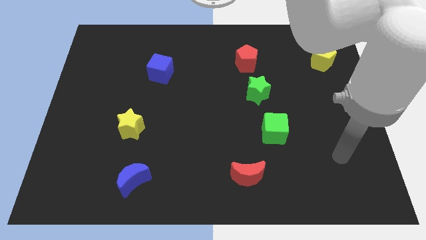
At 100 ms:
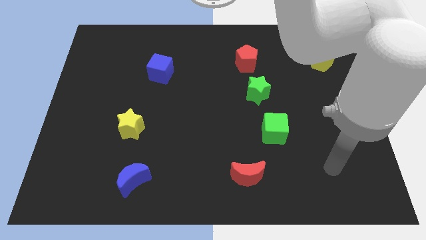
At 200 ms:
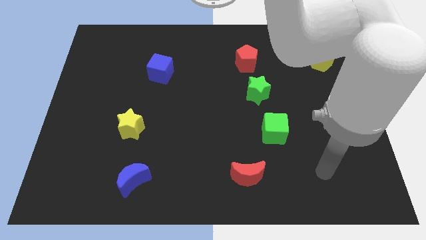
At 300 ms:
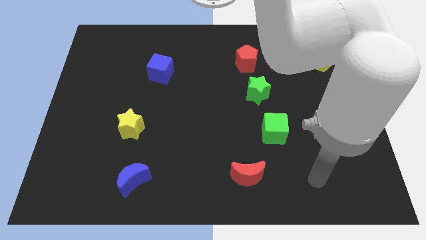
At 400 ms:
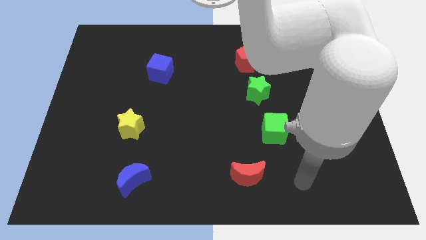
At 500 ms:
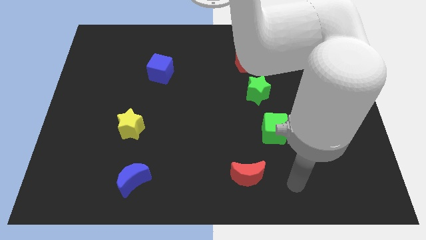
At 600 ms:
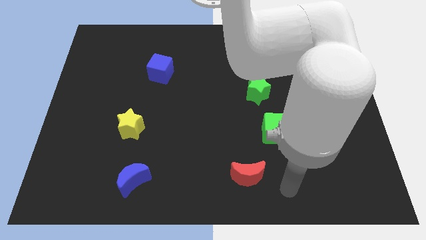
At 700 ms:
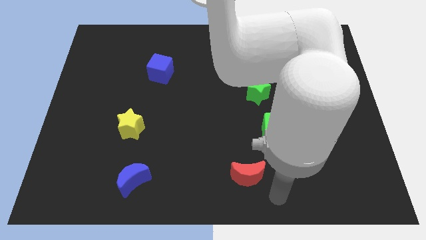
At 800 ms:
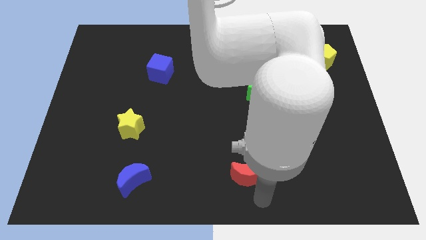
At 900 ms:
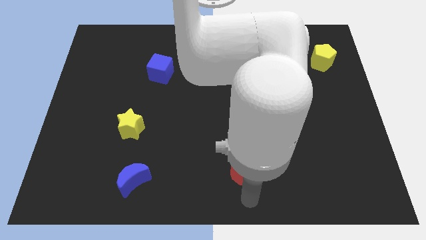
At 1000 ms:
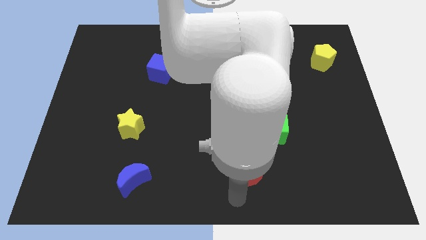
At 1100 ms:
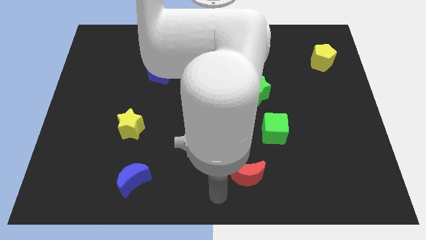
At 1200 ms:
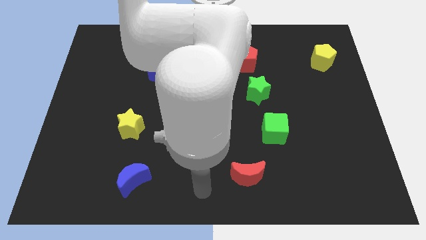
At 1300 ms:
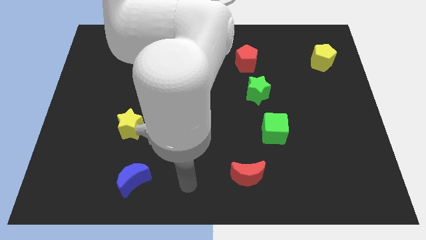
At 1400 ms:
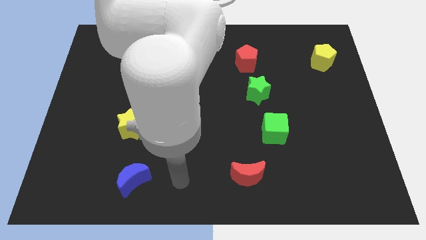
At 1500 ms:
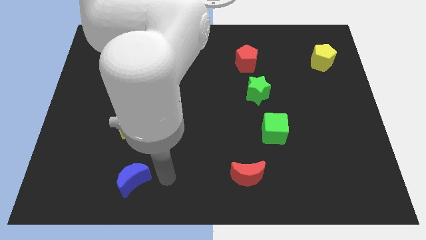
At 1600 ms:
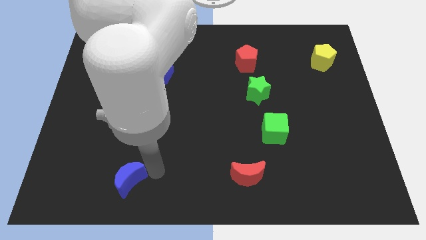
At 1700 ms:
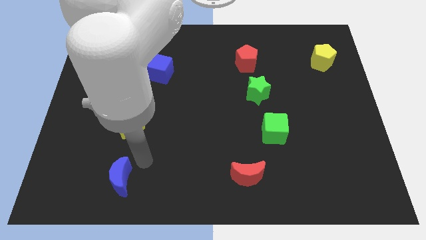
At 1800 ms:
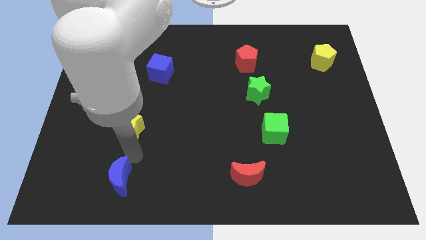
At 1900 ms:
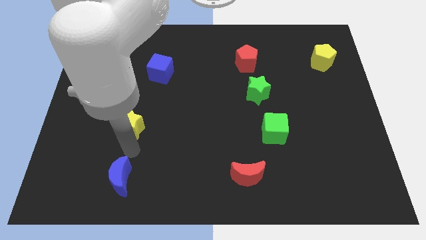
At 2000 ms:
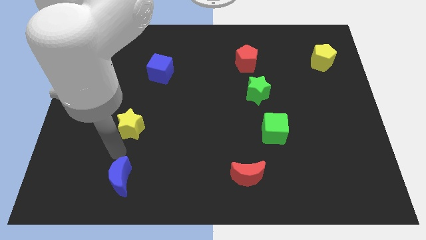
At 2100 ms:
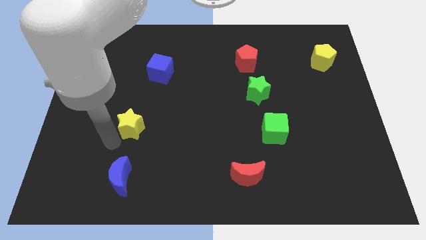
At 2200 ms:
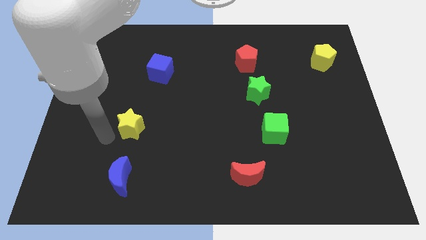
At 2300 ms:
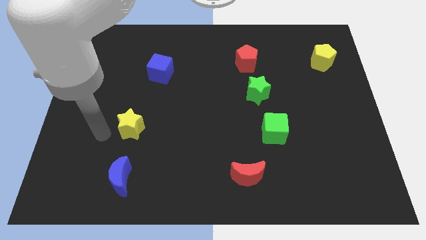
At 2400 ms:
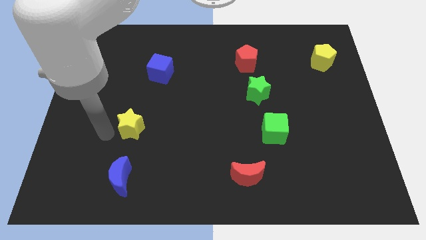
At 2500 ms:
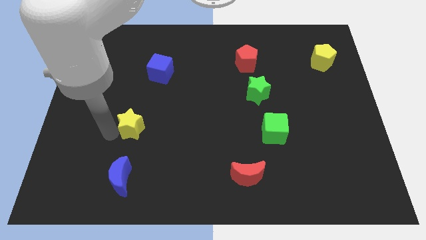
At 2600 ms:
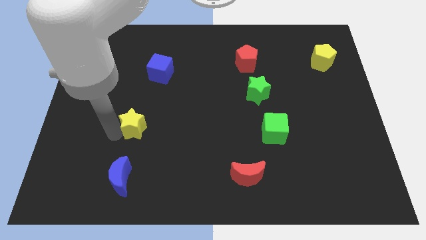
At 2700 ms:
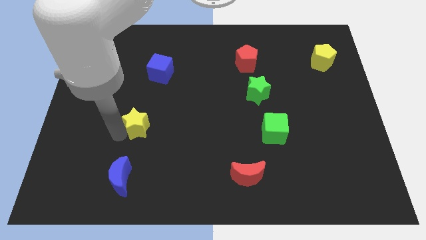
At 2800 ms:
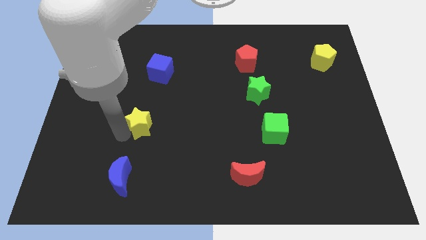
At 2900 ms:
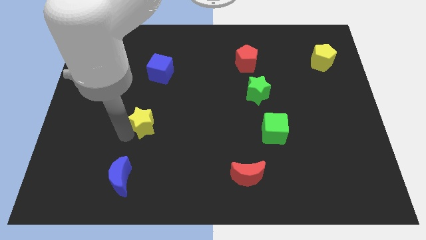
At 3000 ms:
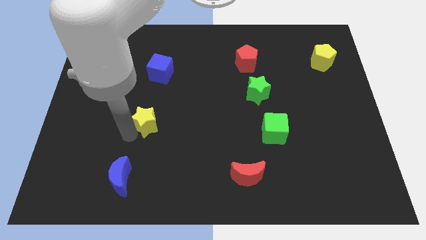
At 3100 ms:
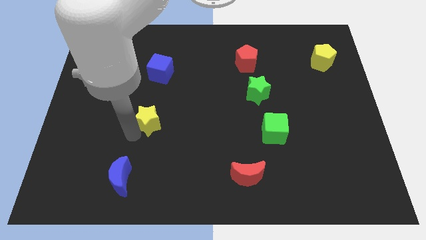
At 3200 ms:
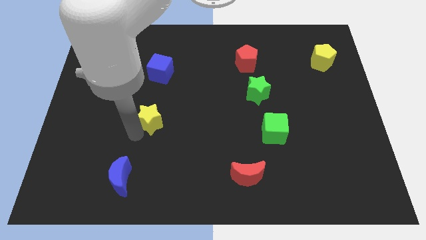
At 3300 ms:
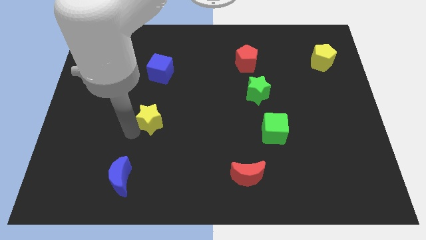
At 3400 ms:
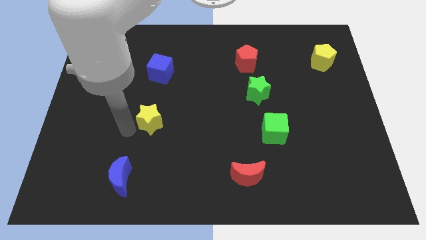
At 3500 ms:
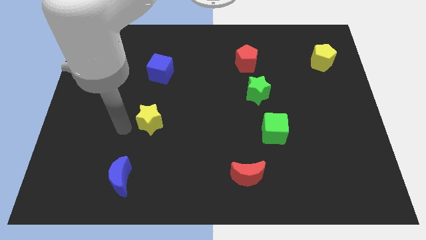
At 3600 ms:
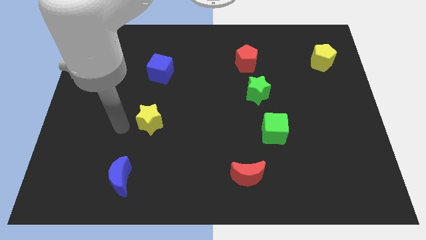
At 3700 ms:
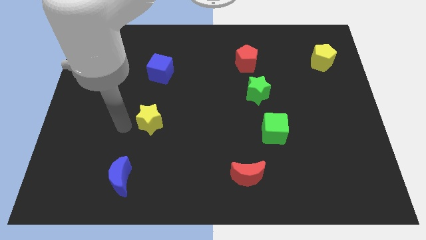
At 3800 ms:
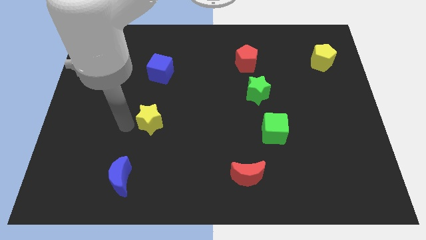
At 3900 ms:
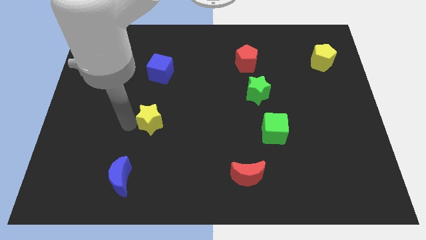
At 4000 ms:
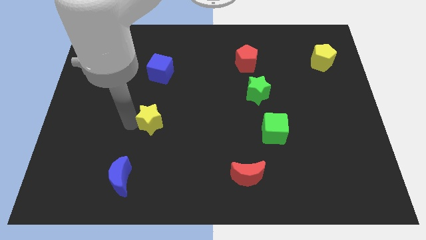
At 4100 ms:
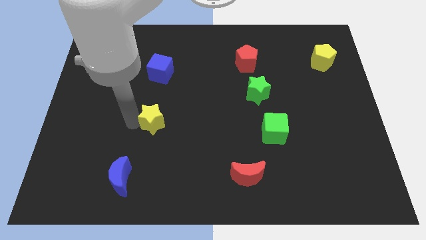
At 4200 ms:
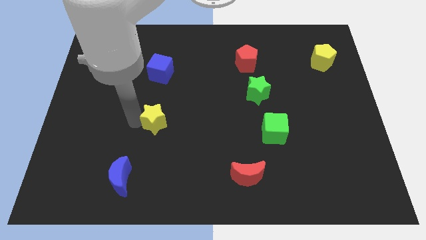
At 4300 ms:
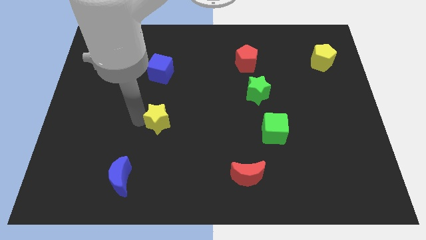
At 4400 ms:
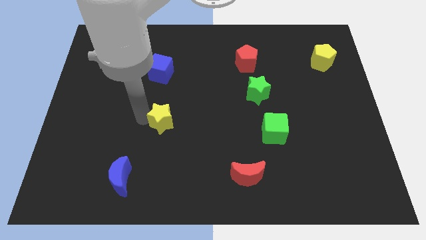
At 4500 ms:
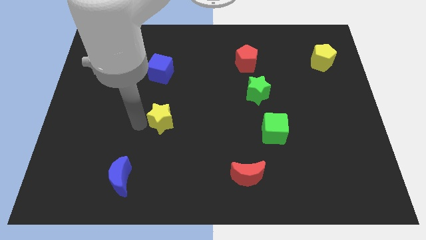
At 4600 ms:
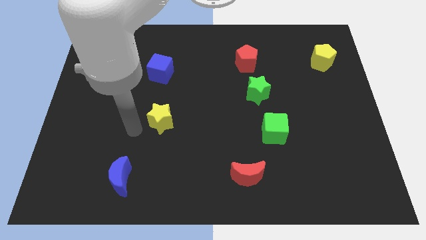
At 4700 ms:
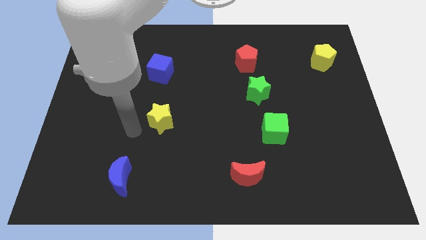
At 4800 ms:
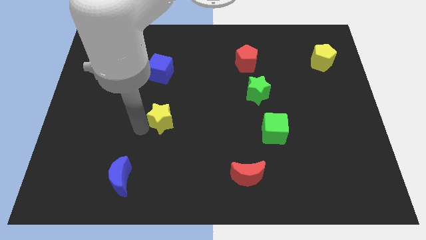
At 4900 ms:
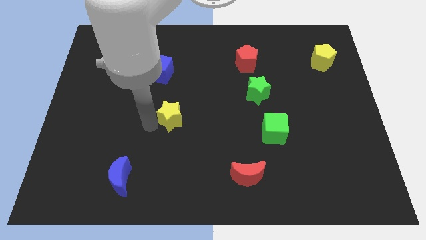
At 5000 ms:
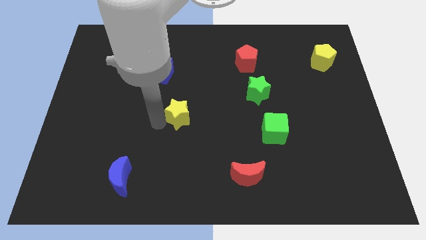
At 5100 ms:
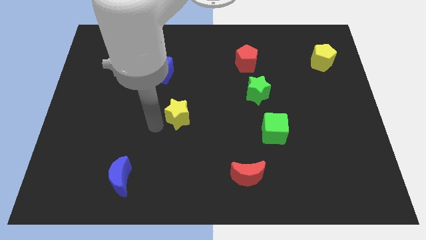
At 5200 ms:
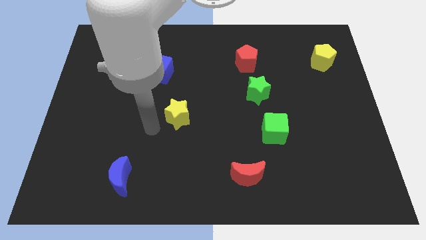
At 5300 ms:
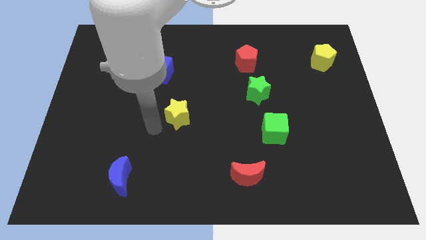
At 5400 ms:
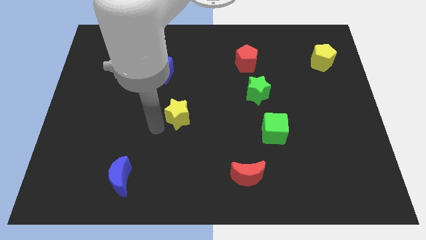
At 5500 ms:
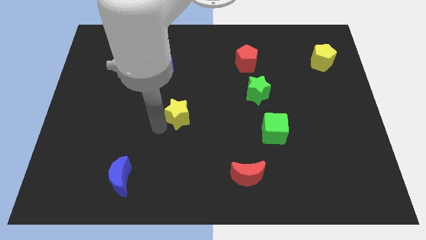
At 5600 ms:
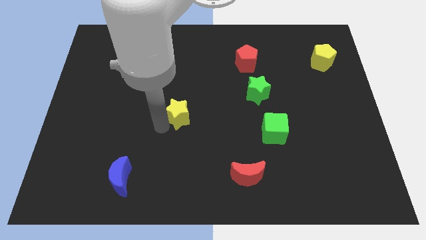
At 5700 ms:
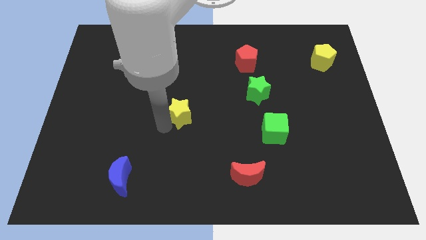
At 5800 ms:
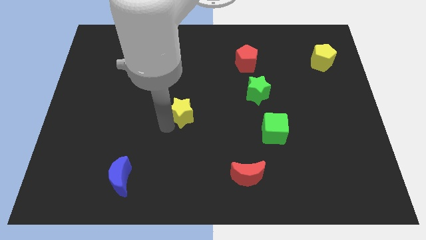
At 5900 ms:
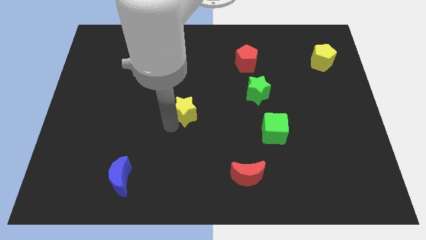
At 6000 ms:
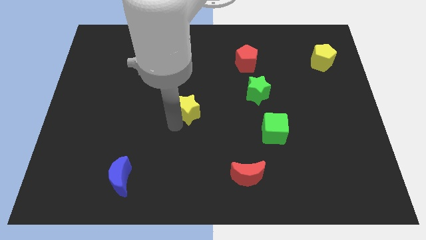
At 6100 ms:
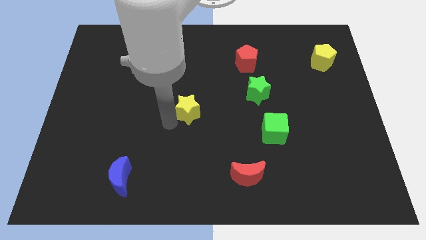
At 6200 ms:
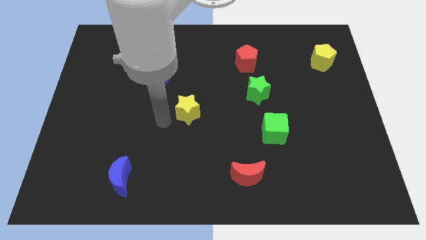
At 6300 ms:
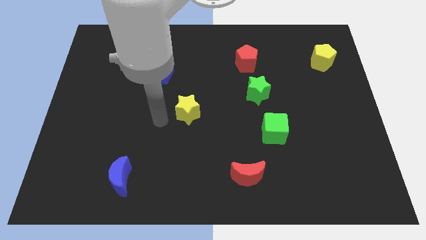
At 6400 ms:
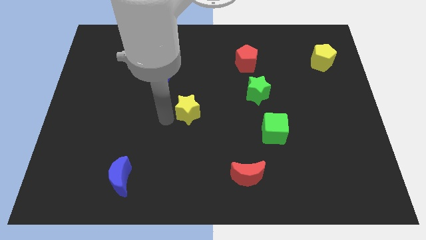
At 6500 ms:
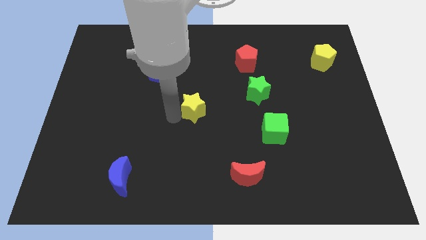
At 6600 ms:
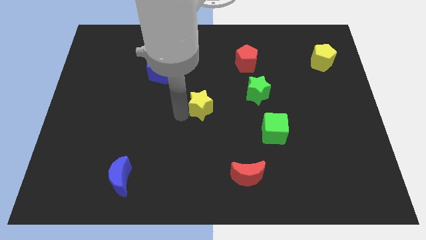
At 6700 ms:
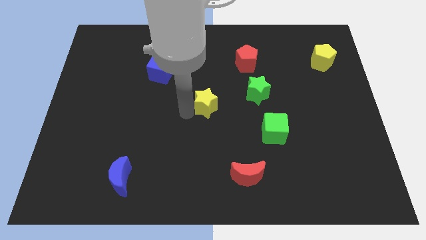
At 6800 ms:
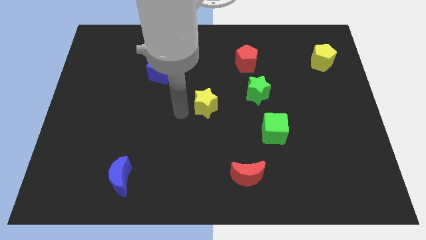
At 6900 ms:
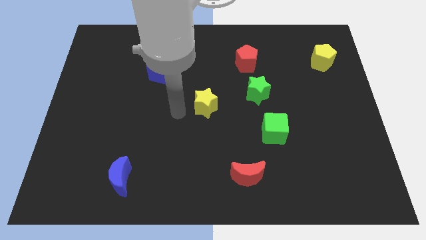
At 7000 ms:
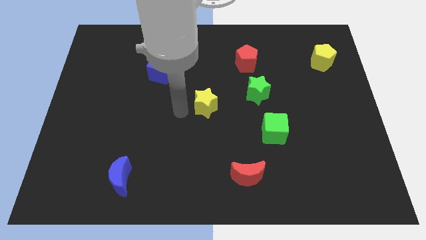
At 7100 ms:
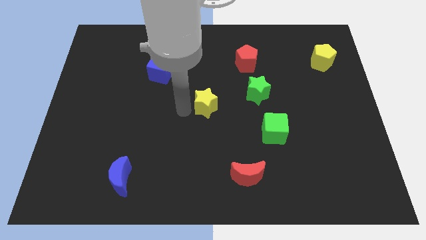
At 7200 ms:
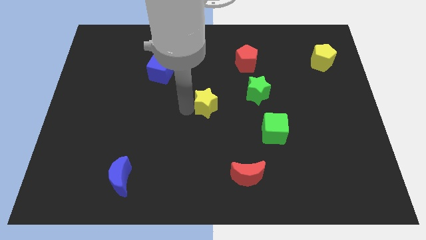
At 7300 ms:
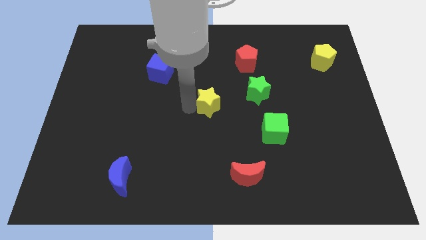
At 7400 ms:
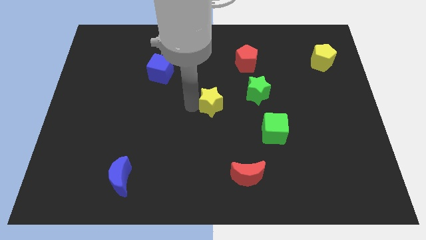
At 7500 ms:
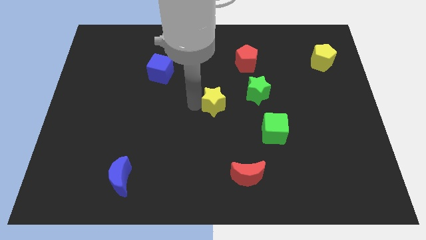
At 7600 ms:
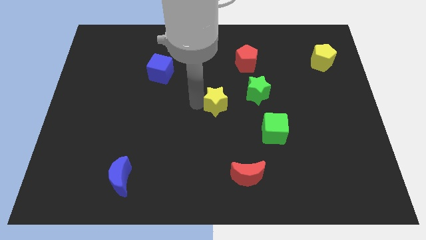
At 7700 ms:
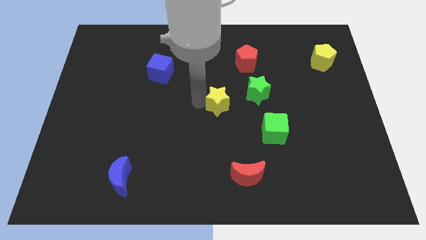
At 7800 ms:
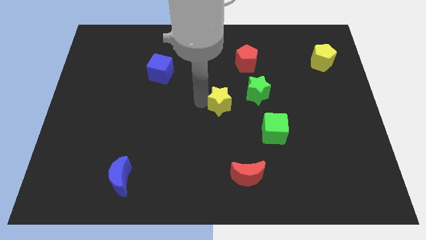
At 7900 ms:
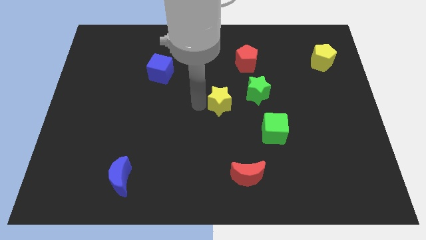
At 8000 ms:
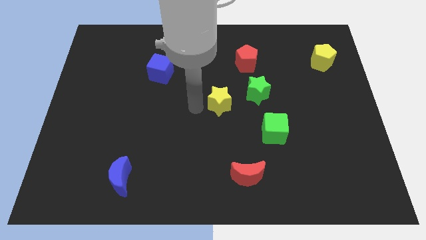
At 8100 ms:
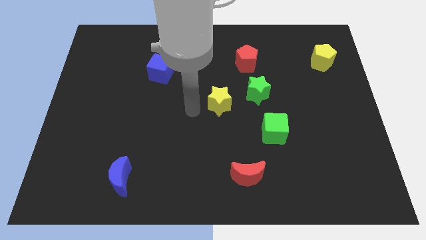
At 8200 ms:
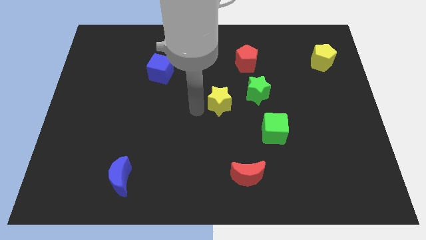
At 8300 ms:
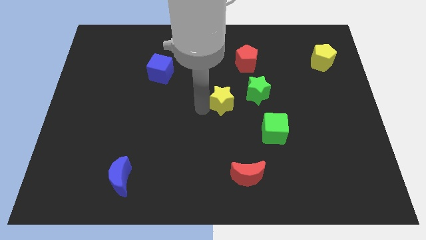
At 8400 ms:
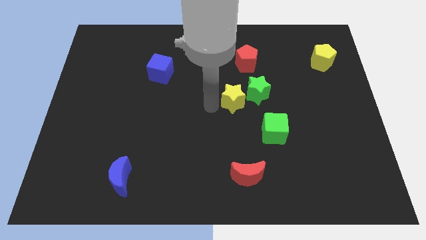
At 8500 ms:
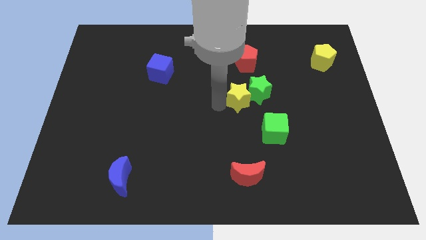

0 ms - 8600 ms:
move the yellow star towards the green star
